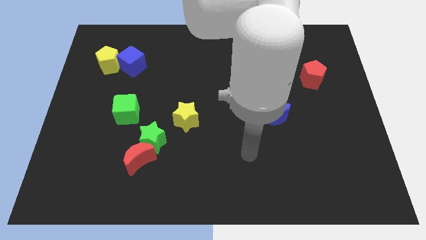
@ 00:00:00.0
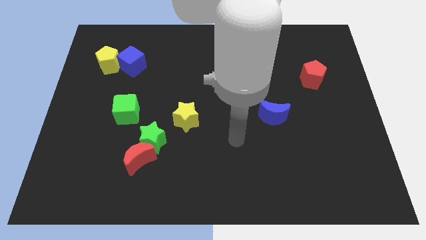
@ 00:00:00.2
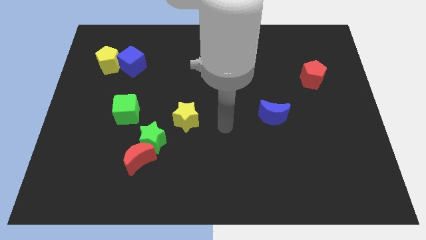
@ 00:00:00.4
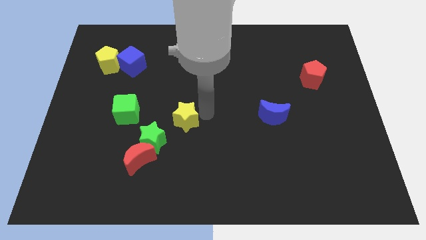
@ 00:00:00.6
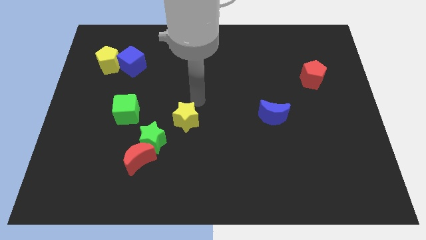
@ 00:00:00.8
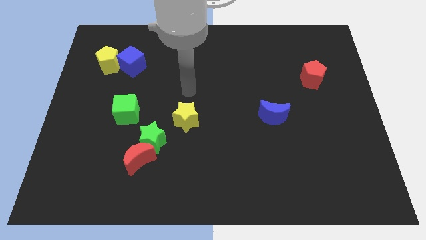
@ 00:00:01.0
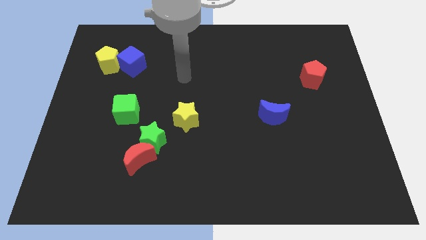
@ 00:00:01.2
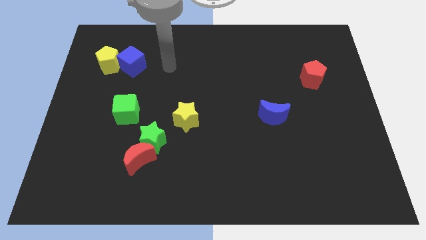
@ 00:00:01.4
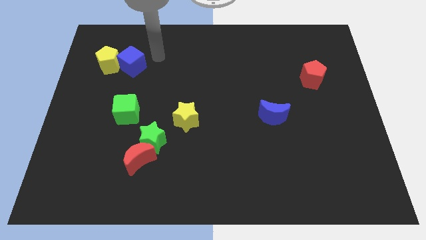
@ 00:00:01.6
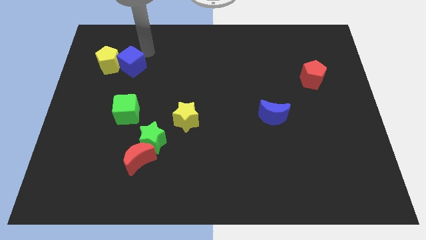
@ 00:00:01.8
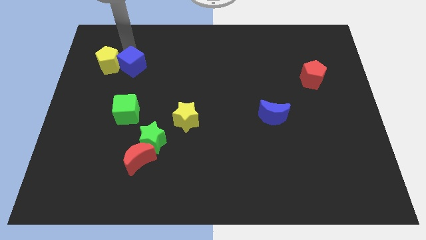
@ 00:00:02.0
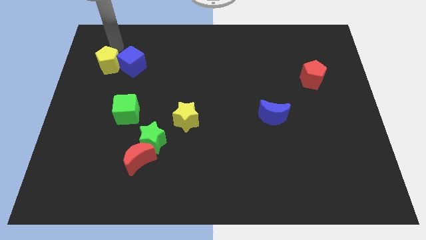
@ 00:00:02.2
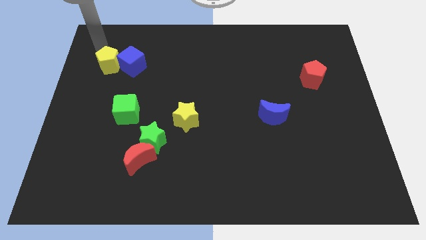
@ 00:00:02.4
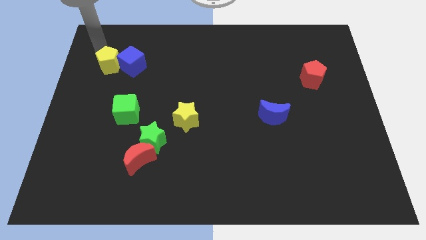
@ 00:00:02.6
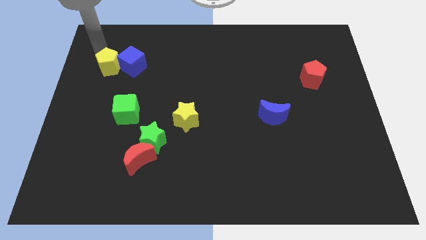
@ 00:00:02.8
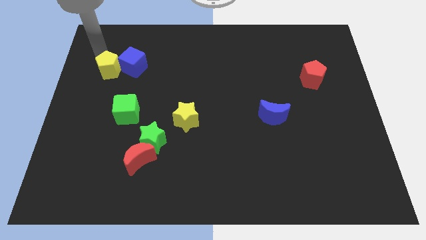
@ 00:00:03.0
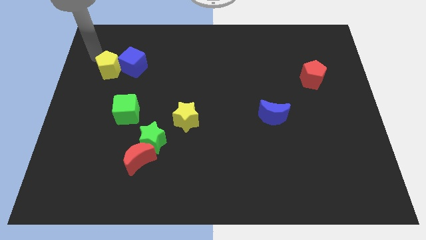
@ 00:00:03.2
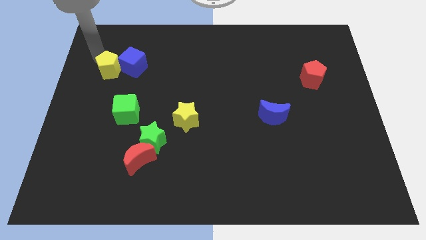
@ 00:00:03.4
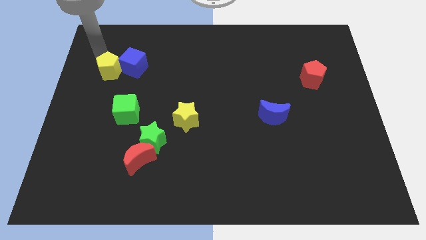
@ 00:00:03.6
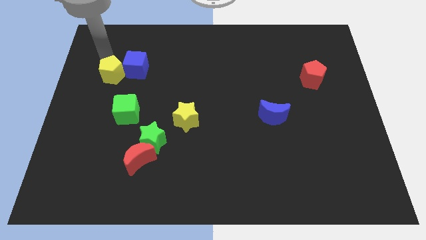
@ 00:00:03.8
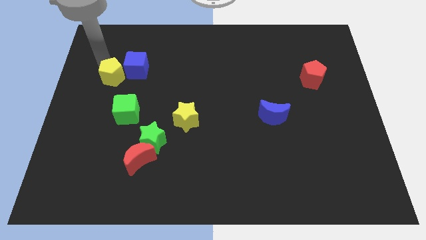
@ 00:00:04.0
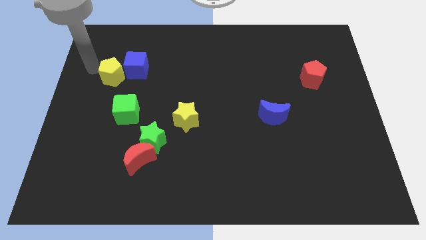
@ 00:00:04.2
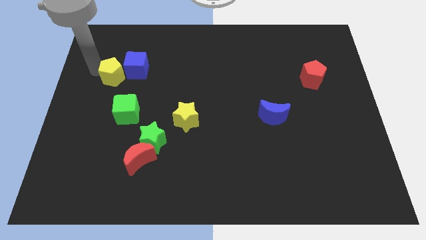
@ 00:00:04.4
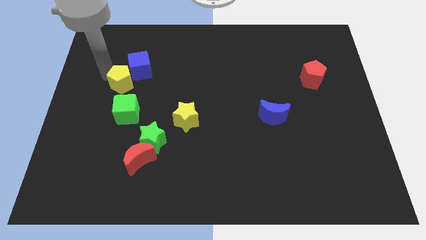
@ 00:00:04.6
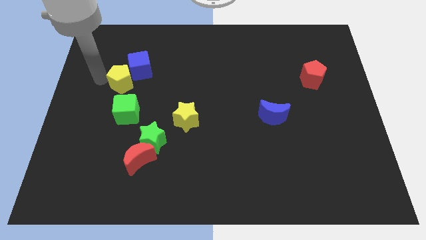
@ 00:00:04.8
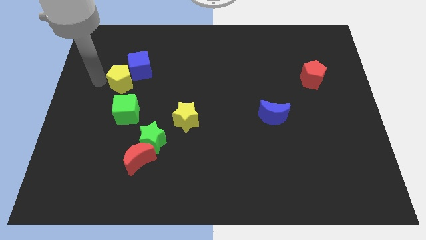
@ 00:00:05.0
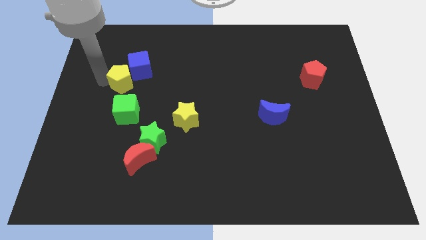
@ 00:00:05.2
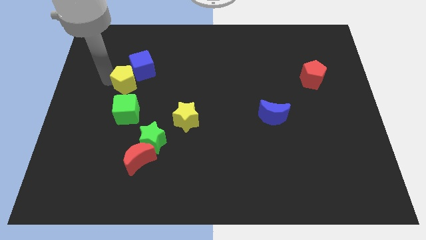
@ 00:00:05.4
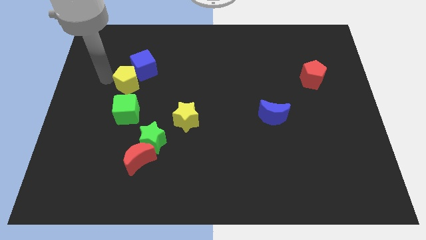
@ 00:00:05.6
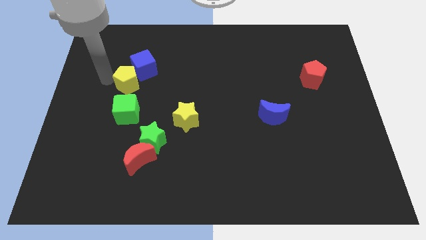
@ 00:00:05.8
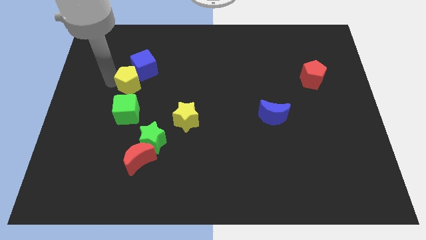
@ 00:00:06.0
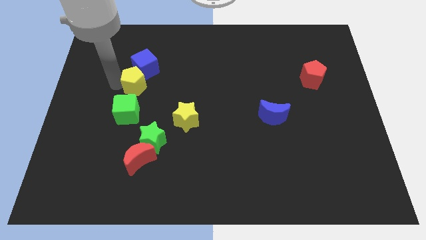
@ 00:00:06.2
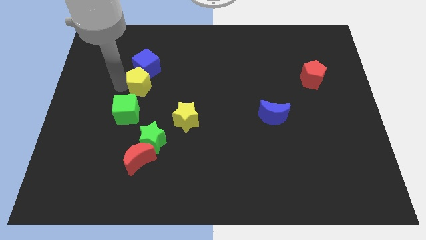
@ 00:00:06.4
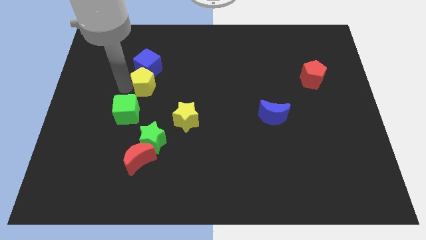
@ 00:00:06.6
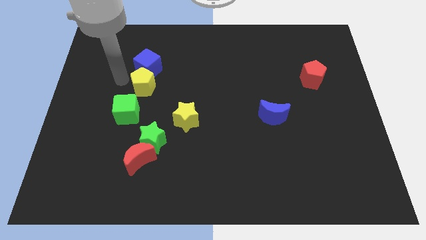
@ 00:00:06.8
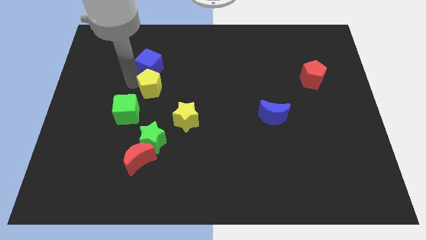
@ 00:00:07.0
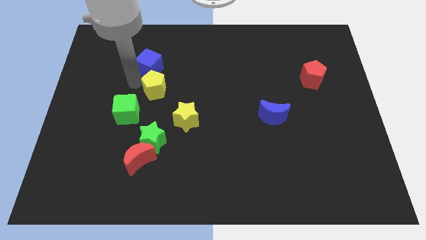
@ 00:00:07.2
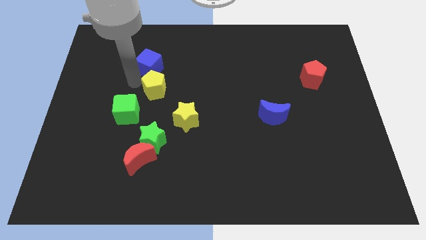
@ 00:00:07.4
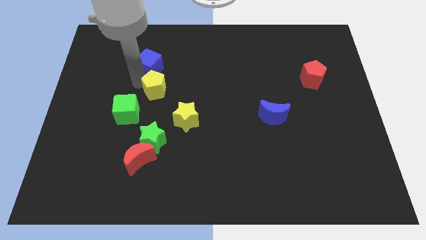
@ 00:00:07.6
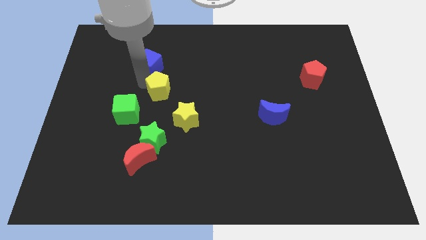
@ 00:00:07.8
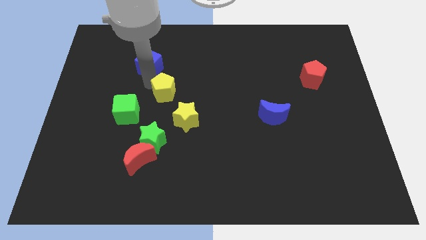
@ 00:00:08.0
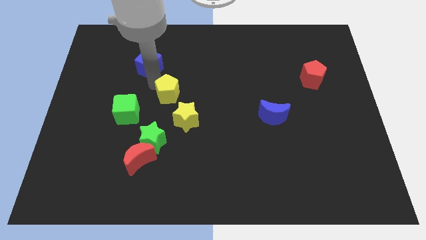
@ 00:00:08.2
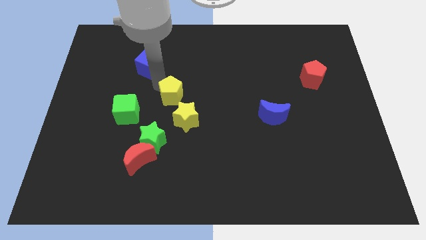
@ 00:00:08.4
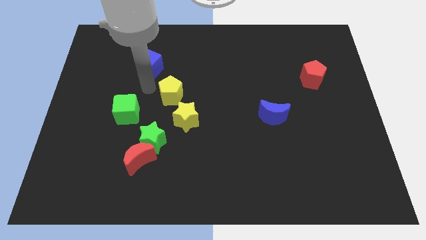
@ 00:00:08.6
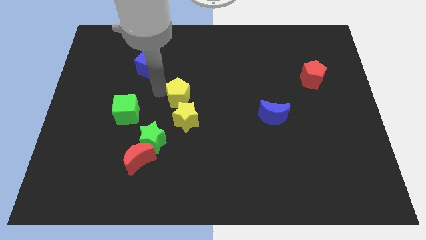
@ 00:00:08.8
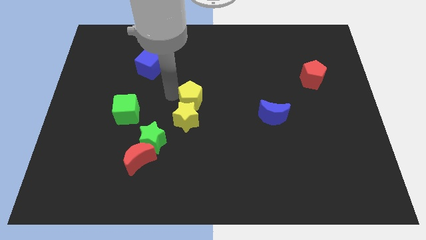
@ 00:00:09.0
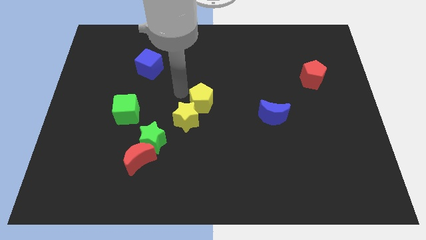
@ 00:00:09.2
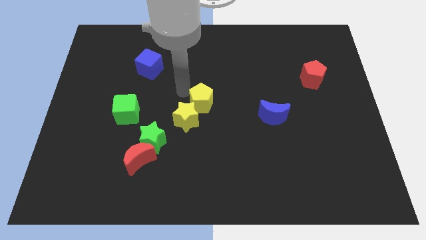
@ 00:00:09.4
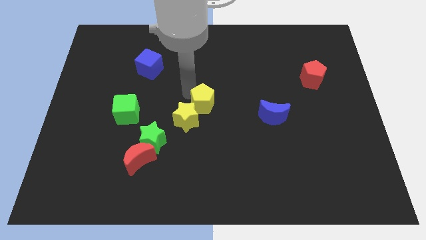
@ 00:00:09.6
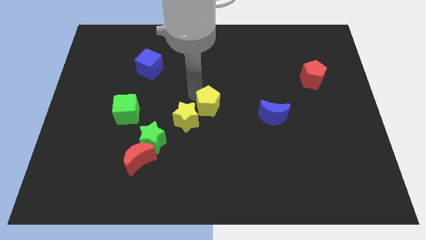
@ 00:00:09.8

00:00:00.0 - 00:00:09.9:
push the yellow pentagon to the left side of the blue moon

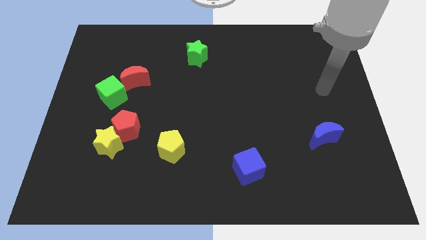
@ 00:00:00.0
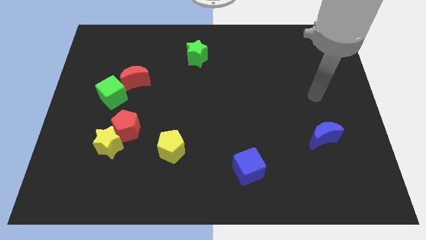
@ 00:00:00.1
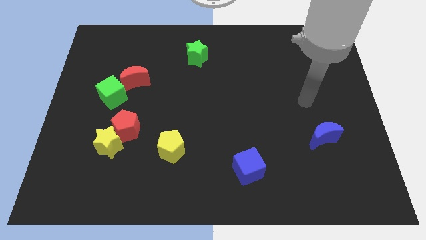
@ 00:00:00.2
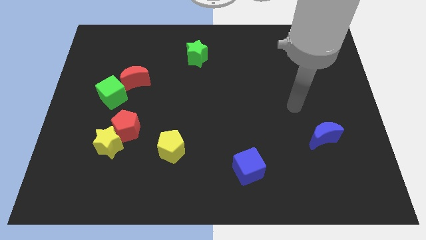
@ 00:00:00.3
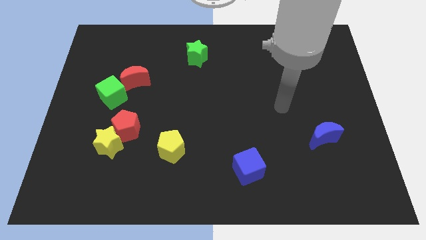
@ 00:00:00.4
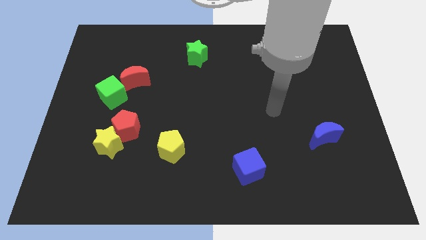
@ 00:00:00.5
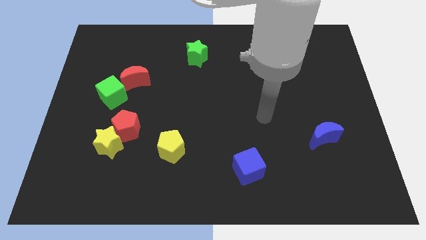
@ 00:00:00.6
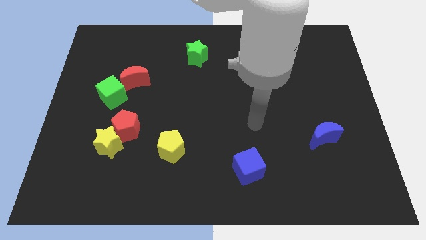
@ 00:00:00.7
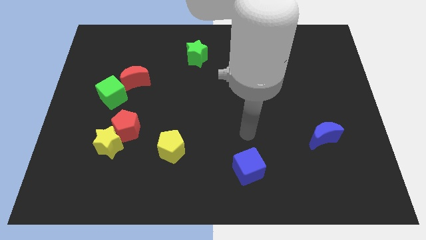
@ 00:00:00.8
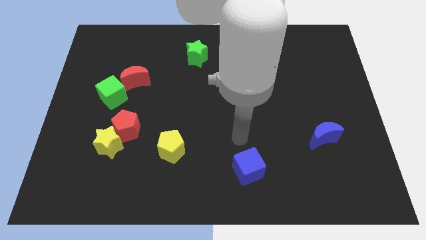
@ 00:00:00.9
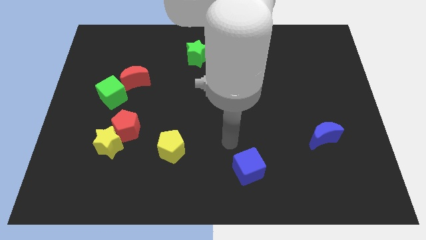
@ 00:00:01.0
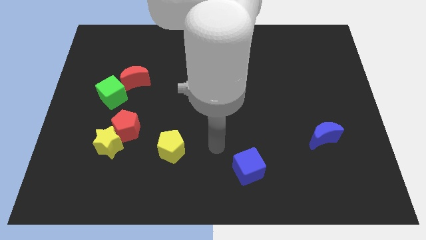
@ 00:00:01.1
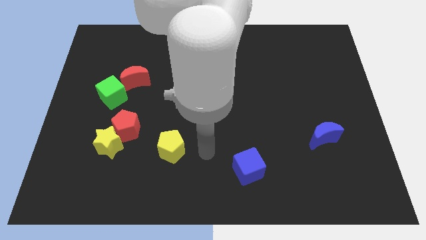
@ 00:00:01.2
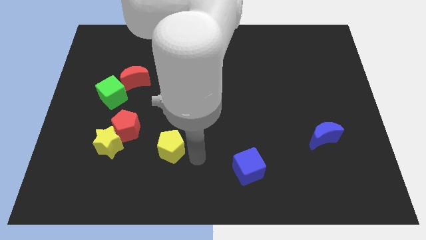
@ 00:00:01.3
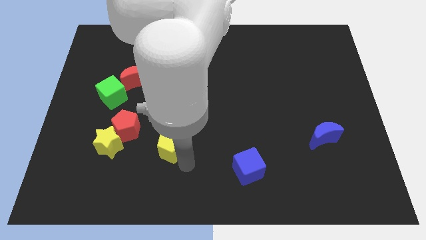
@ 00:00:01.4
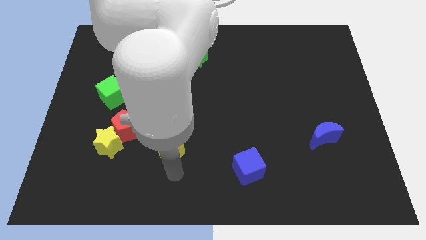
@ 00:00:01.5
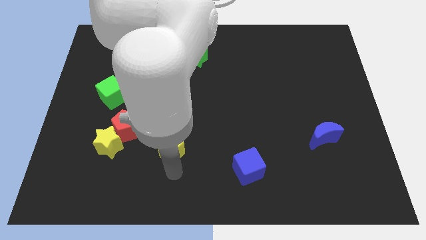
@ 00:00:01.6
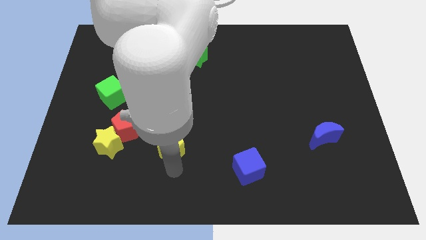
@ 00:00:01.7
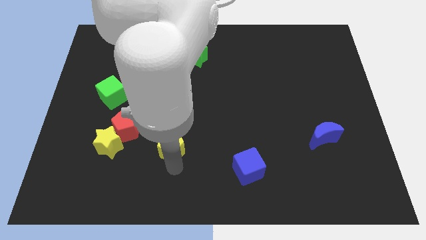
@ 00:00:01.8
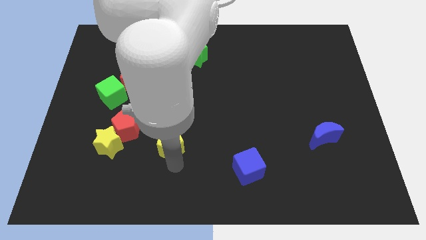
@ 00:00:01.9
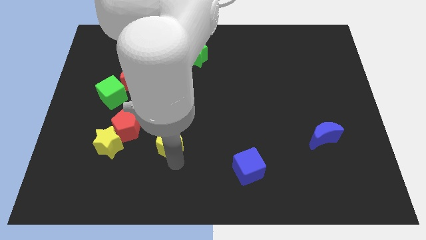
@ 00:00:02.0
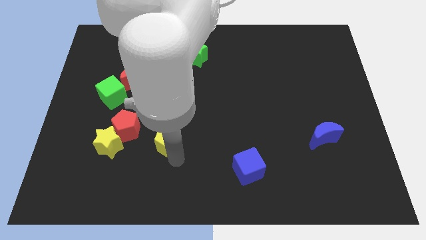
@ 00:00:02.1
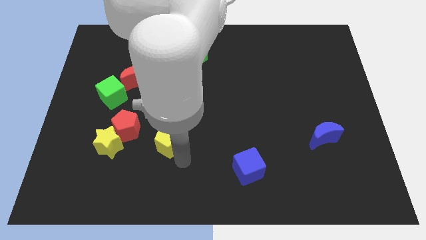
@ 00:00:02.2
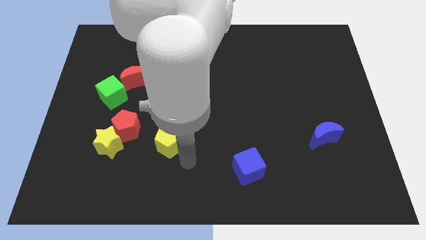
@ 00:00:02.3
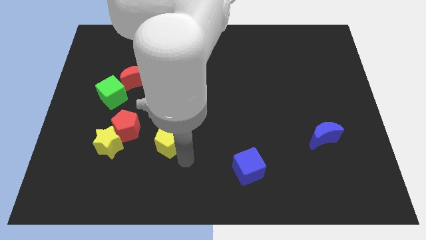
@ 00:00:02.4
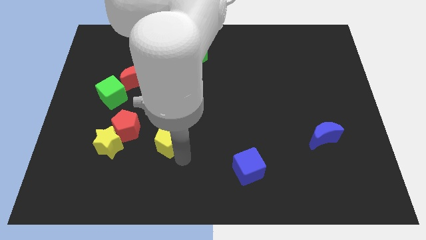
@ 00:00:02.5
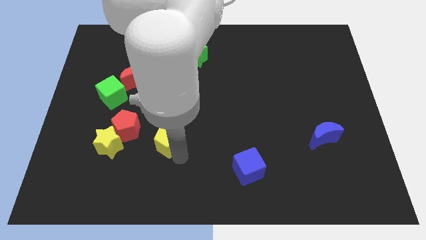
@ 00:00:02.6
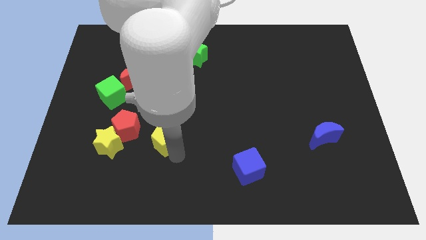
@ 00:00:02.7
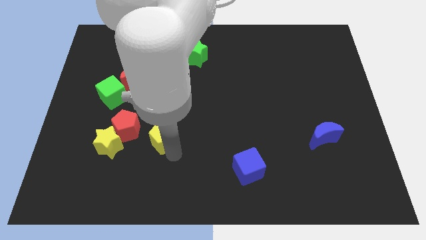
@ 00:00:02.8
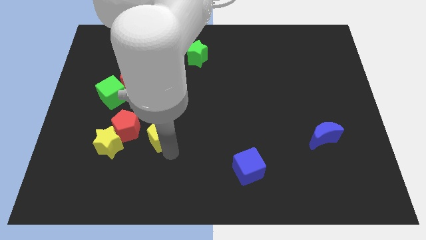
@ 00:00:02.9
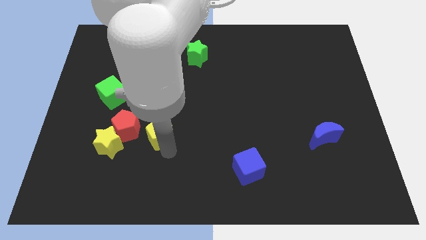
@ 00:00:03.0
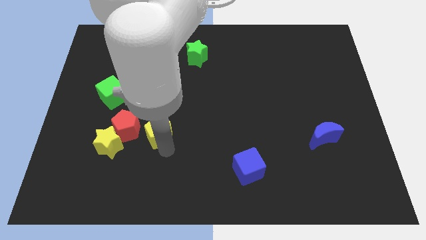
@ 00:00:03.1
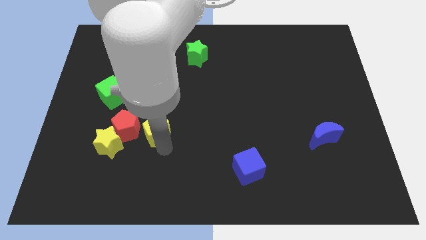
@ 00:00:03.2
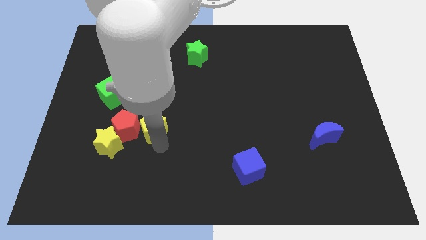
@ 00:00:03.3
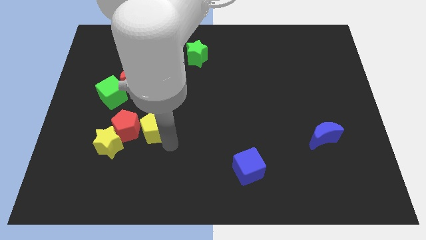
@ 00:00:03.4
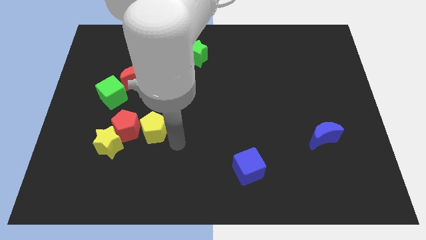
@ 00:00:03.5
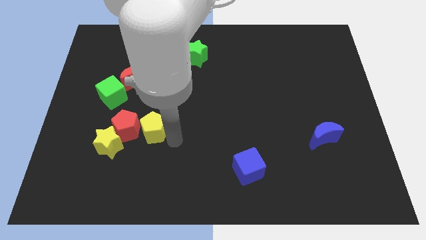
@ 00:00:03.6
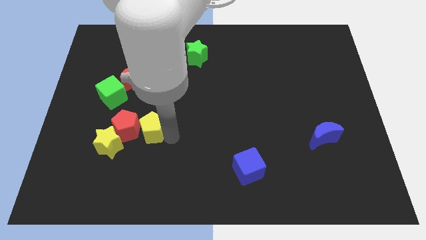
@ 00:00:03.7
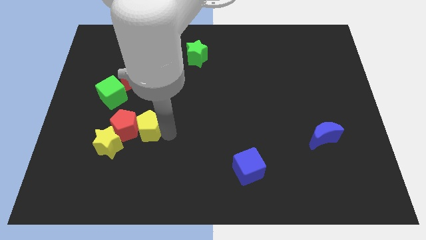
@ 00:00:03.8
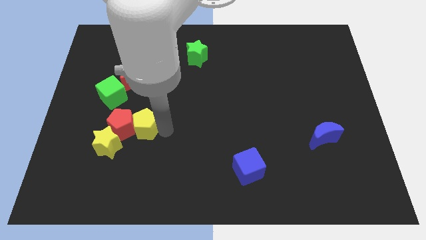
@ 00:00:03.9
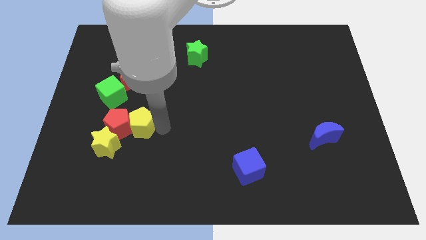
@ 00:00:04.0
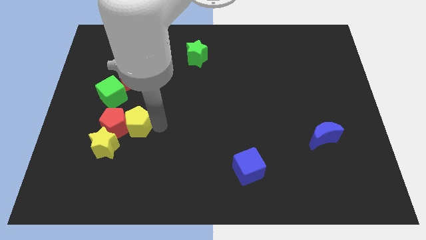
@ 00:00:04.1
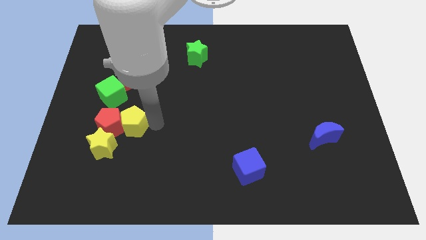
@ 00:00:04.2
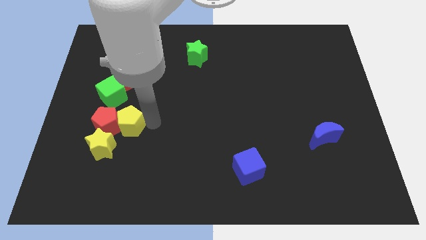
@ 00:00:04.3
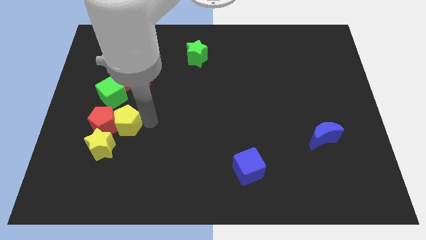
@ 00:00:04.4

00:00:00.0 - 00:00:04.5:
put the yellow pentagon above the yellow star
